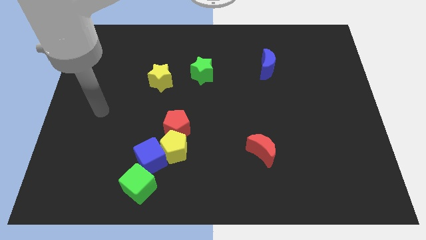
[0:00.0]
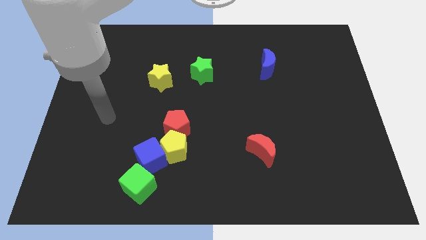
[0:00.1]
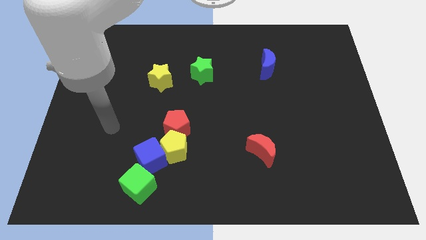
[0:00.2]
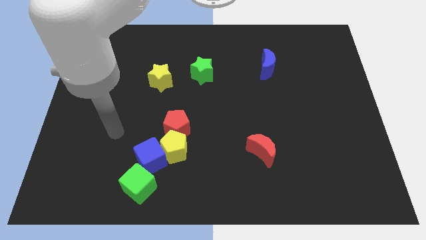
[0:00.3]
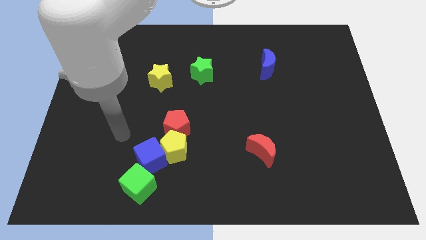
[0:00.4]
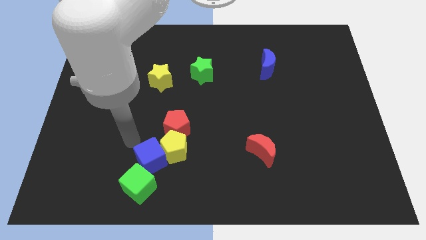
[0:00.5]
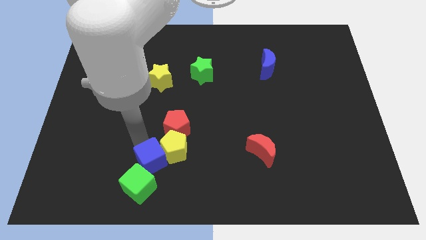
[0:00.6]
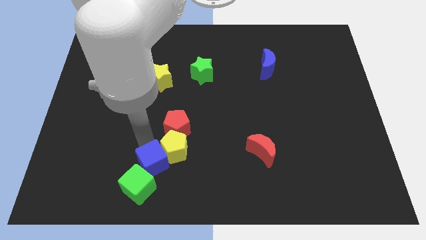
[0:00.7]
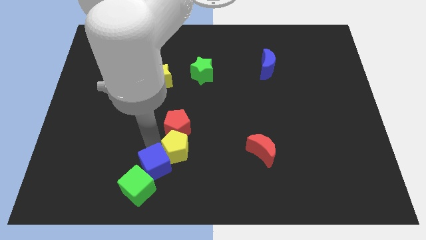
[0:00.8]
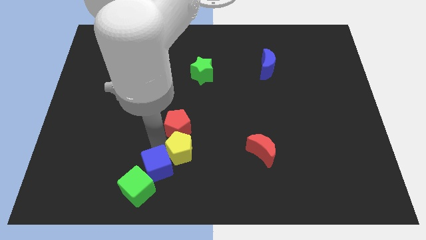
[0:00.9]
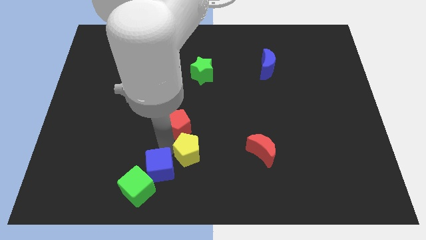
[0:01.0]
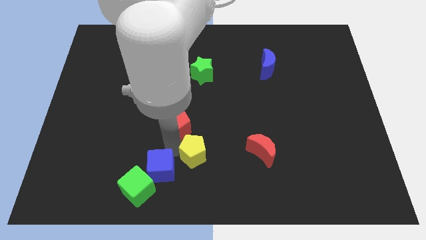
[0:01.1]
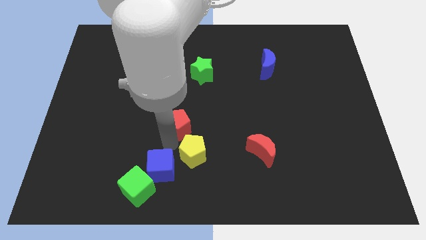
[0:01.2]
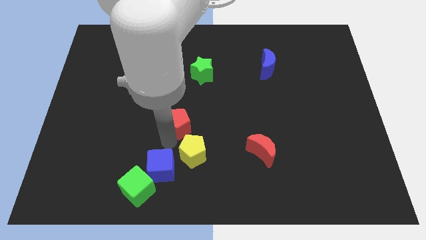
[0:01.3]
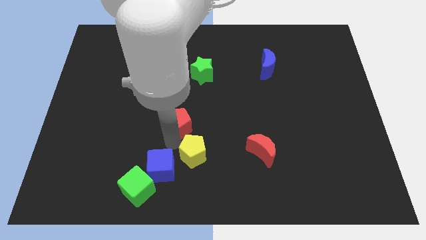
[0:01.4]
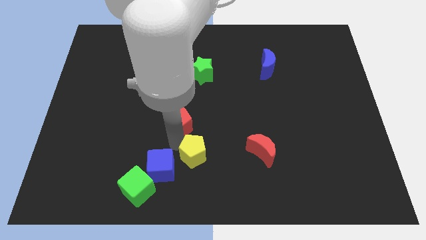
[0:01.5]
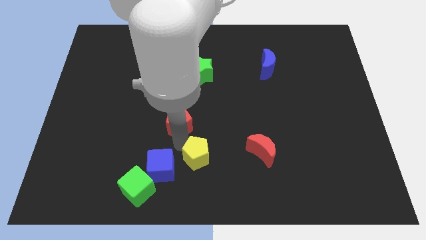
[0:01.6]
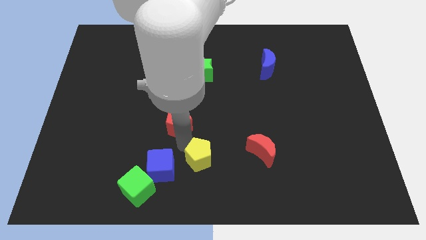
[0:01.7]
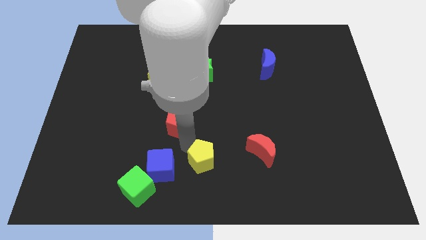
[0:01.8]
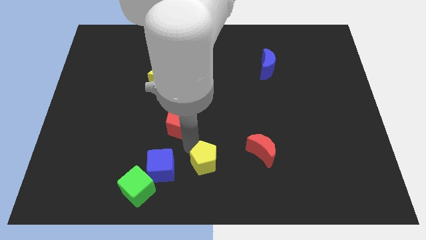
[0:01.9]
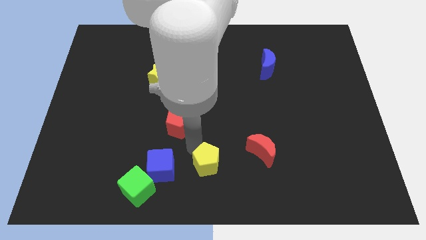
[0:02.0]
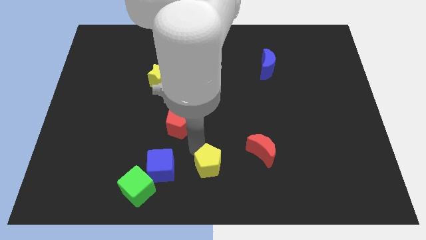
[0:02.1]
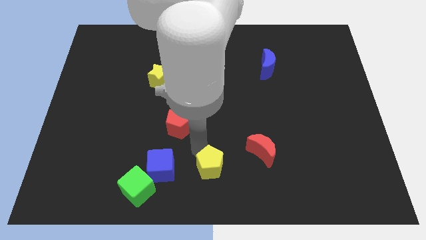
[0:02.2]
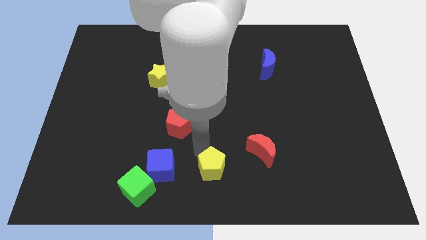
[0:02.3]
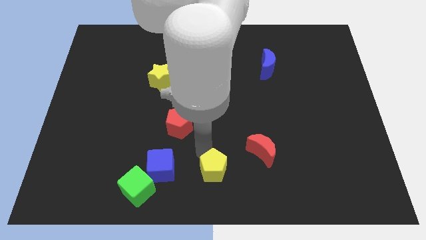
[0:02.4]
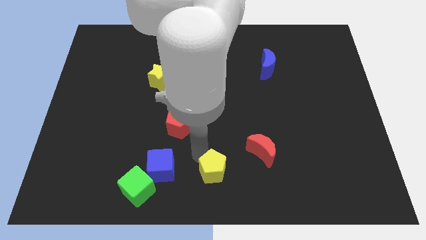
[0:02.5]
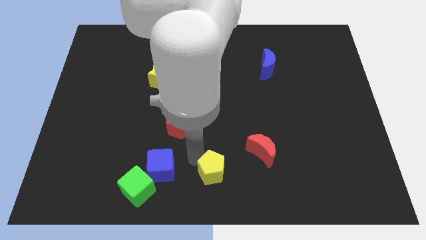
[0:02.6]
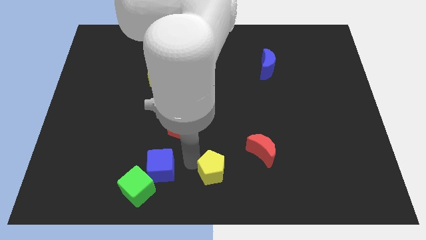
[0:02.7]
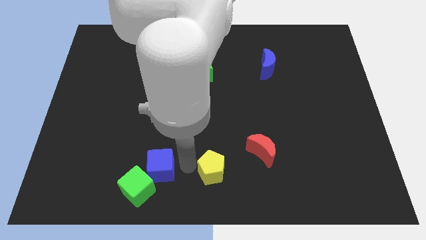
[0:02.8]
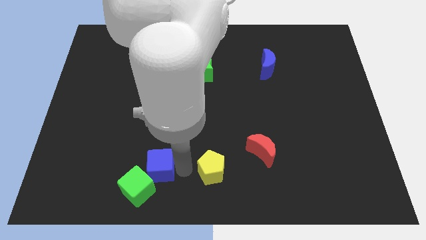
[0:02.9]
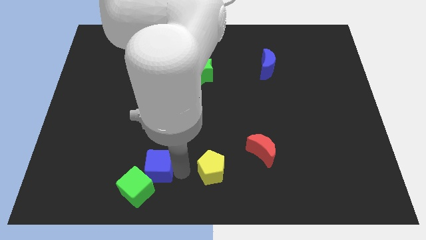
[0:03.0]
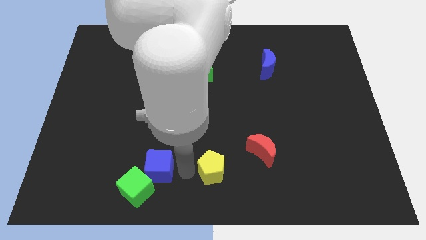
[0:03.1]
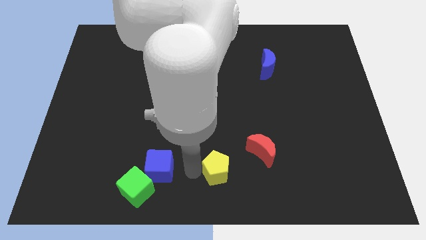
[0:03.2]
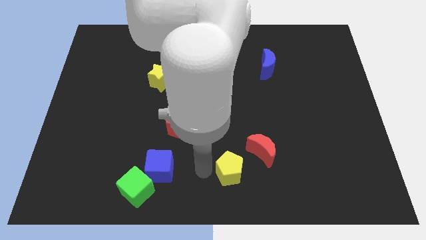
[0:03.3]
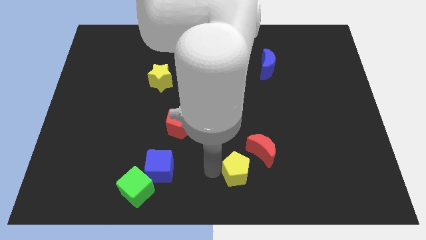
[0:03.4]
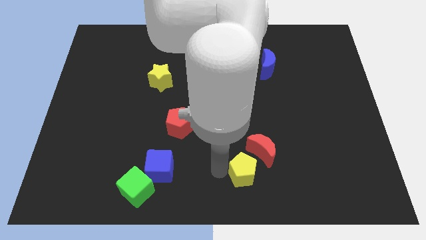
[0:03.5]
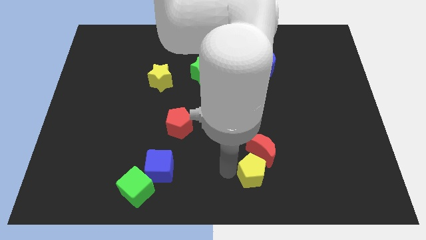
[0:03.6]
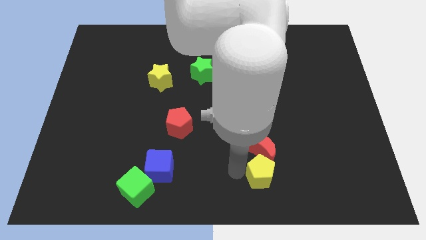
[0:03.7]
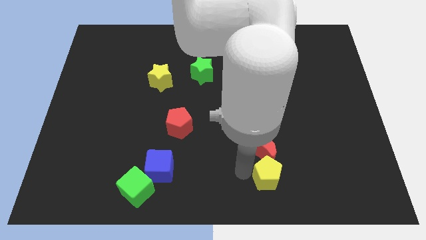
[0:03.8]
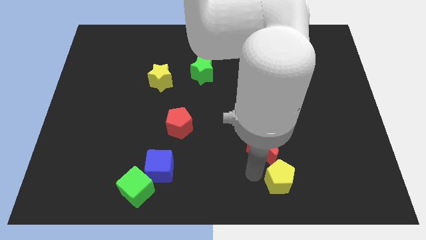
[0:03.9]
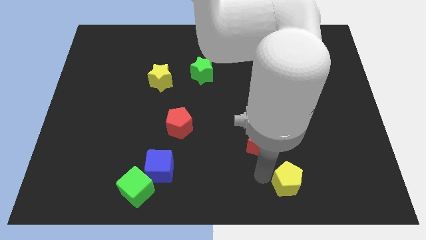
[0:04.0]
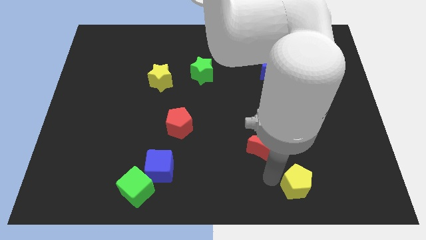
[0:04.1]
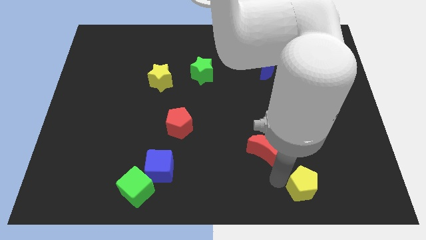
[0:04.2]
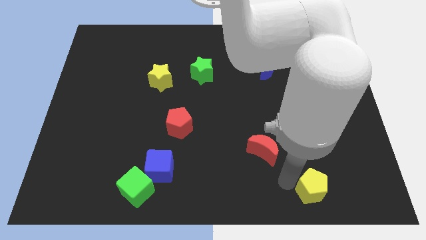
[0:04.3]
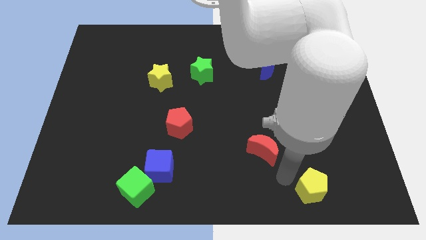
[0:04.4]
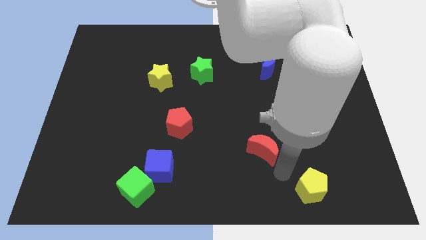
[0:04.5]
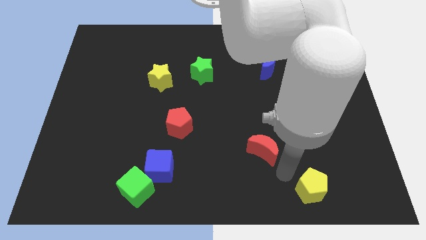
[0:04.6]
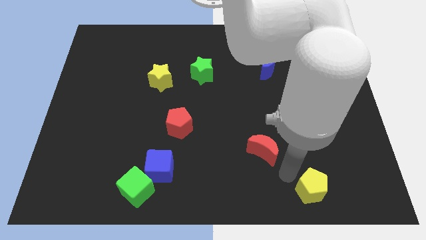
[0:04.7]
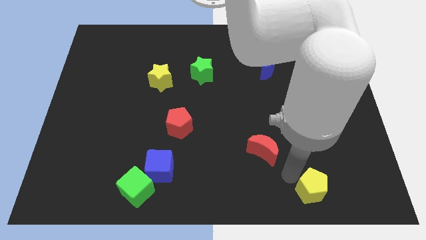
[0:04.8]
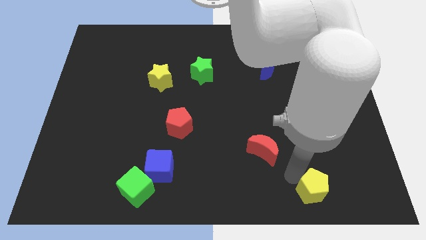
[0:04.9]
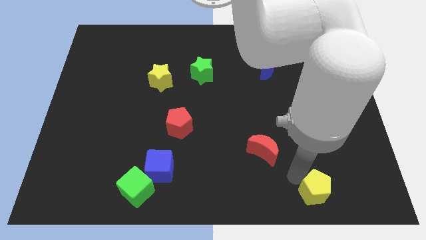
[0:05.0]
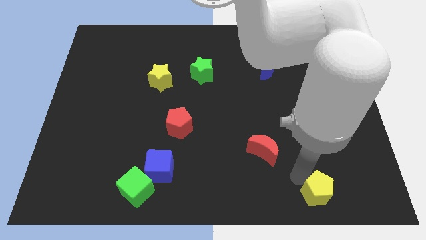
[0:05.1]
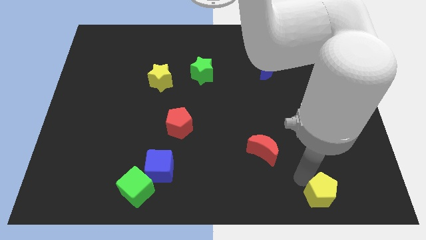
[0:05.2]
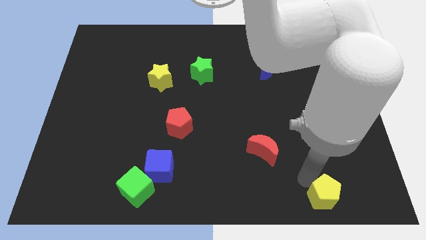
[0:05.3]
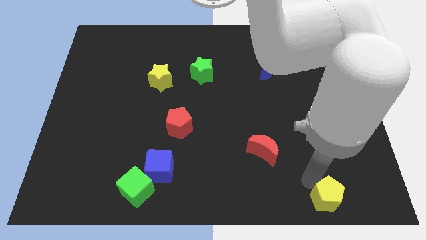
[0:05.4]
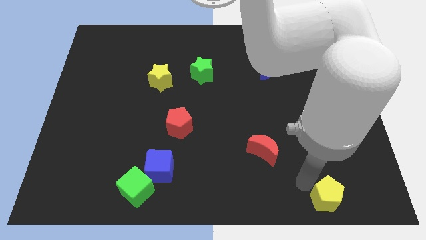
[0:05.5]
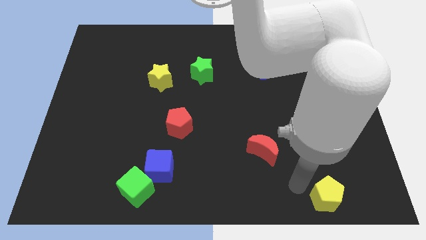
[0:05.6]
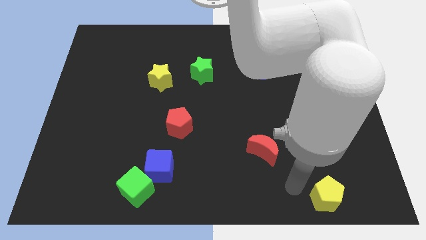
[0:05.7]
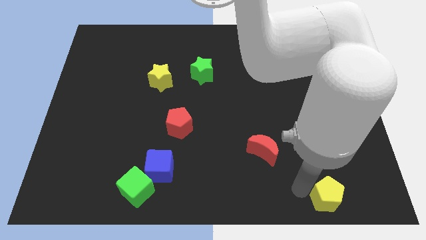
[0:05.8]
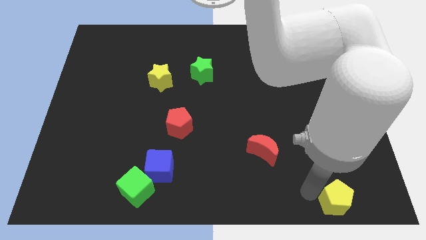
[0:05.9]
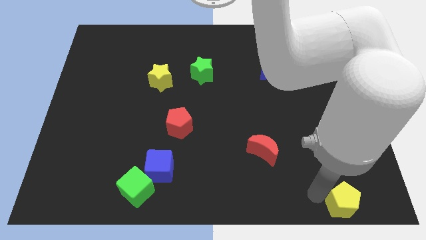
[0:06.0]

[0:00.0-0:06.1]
slide the yellow pentagon to the bottom right corner

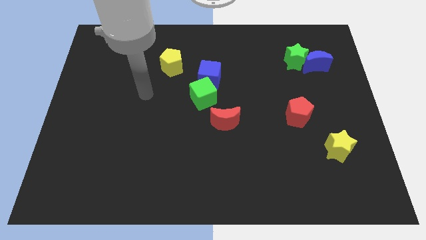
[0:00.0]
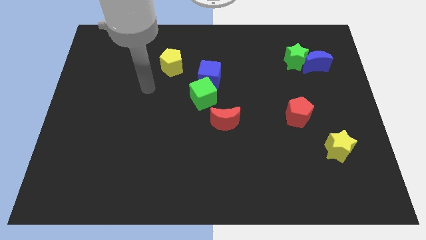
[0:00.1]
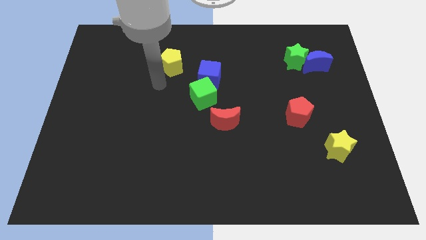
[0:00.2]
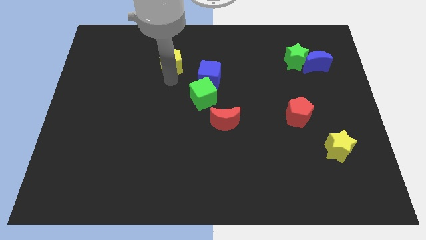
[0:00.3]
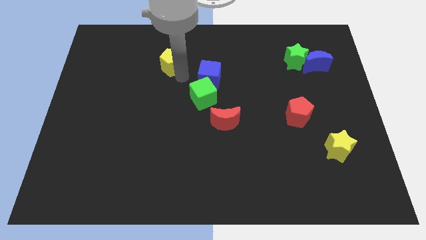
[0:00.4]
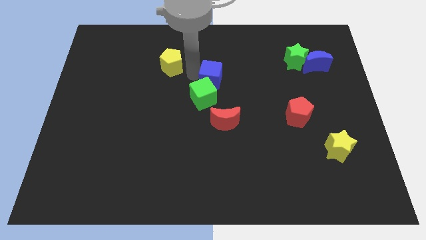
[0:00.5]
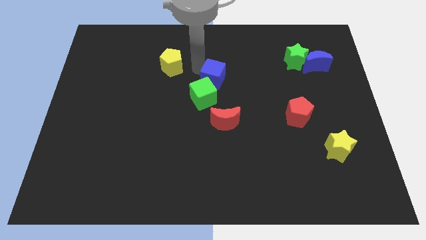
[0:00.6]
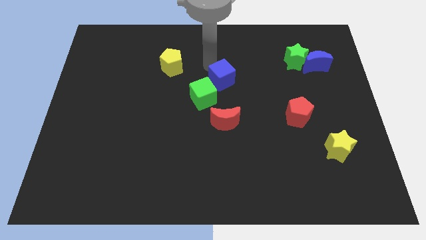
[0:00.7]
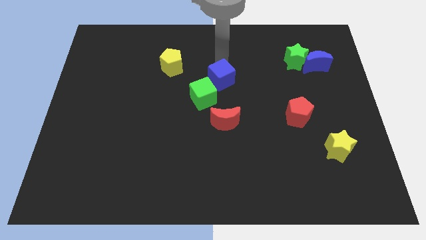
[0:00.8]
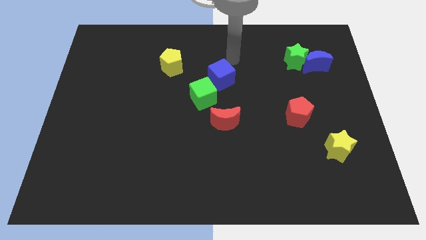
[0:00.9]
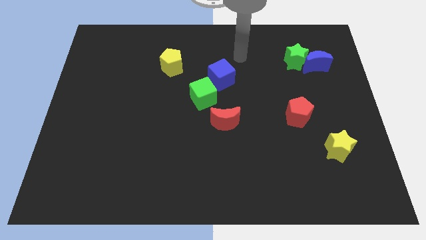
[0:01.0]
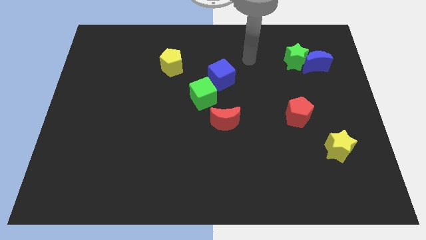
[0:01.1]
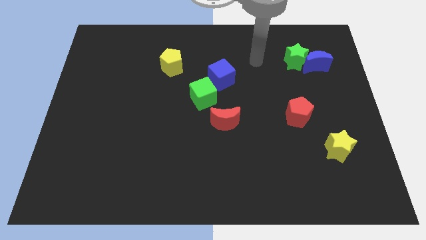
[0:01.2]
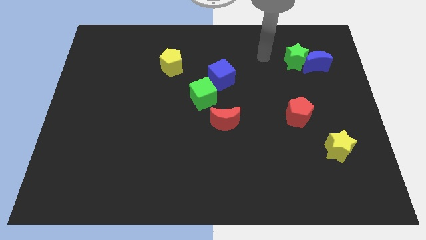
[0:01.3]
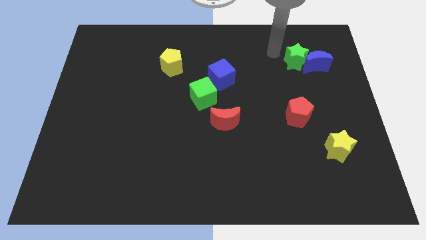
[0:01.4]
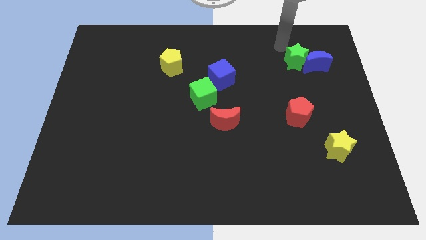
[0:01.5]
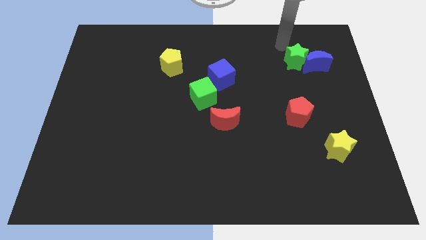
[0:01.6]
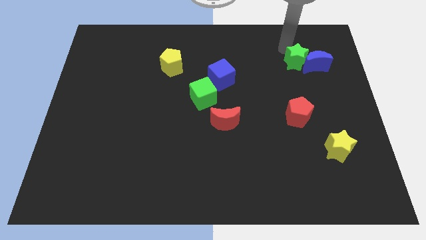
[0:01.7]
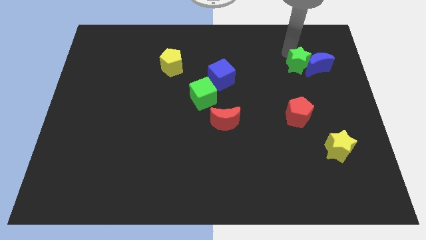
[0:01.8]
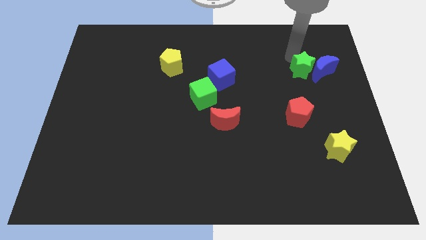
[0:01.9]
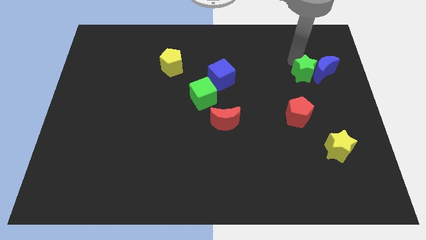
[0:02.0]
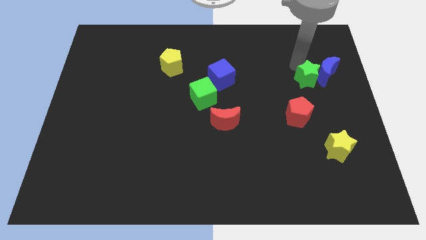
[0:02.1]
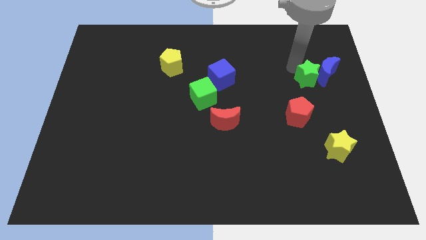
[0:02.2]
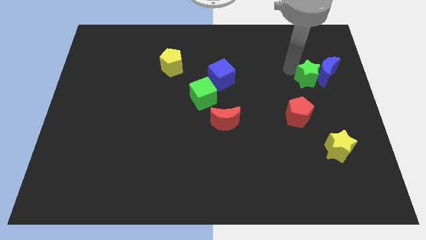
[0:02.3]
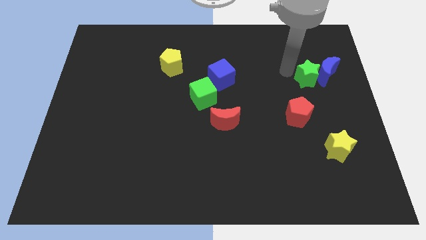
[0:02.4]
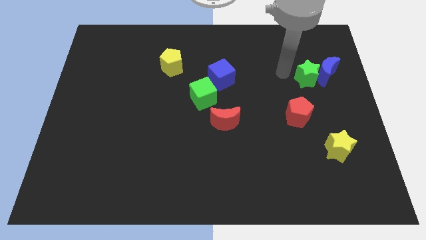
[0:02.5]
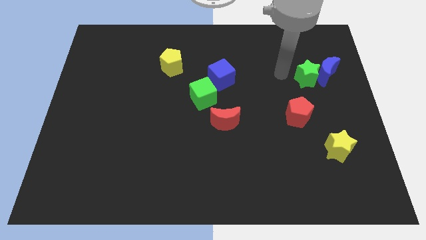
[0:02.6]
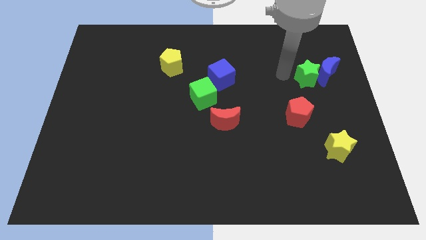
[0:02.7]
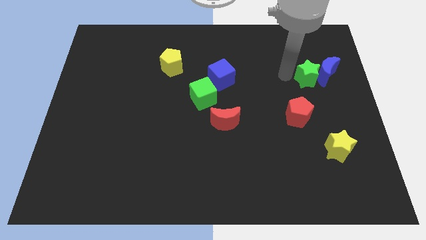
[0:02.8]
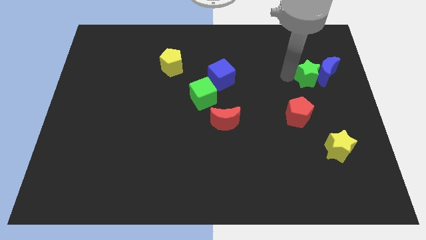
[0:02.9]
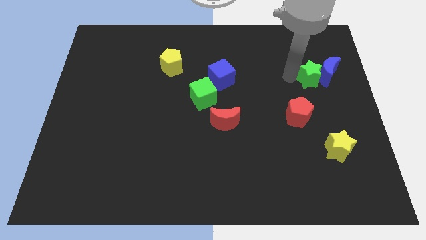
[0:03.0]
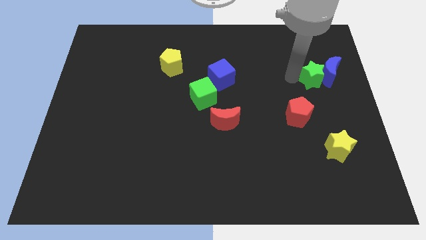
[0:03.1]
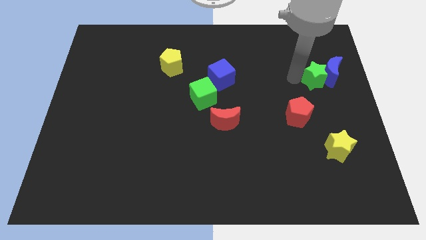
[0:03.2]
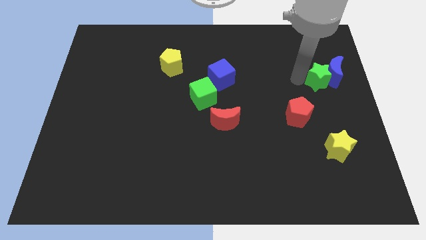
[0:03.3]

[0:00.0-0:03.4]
push the green star to the right side of the board
